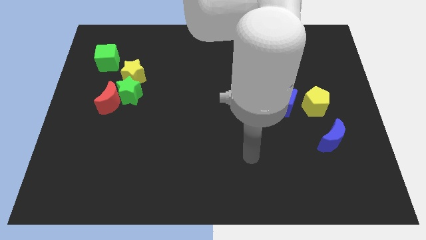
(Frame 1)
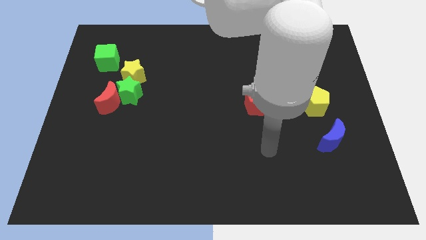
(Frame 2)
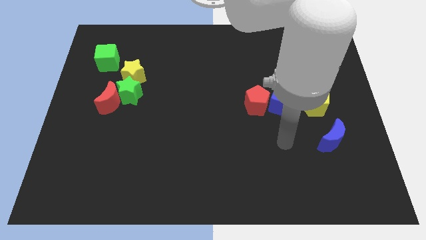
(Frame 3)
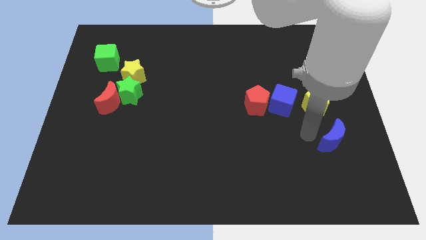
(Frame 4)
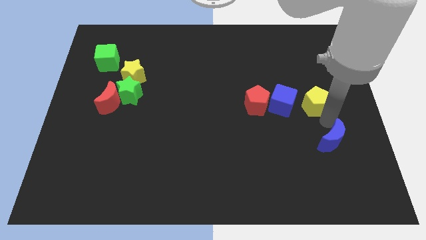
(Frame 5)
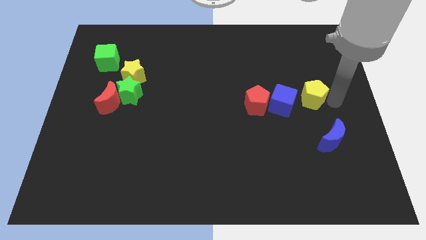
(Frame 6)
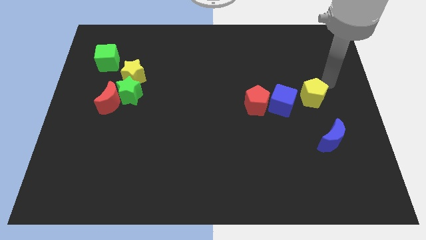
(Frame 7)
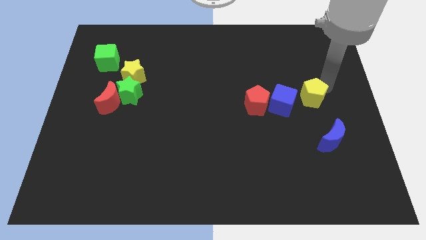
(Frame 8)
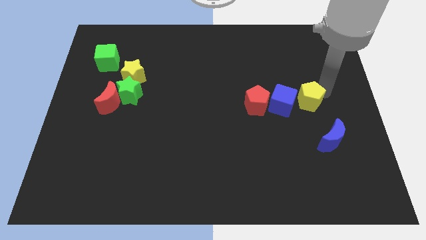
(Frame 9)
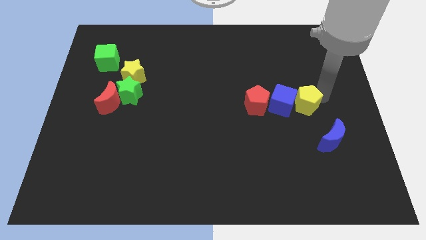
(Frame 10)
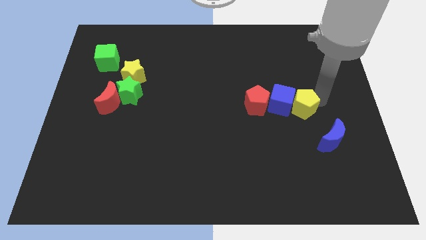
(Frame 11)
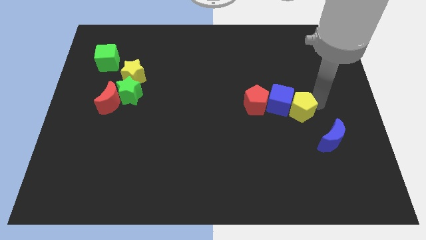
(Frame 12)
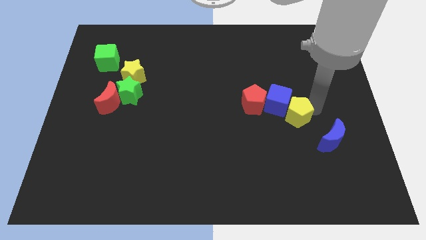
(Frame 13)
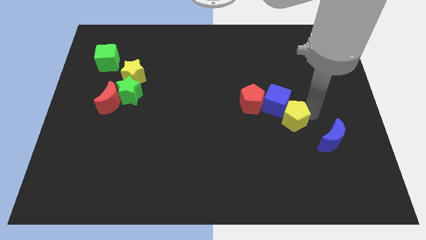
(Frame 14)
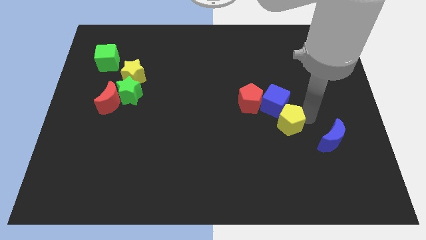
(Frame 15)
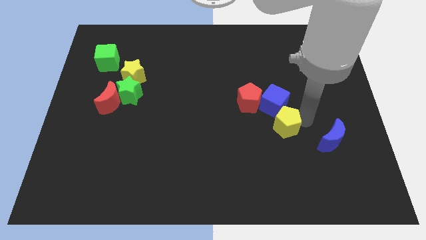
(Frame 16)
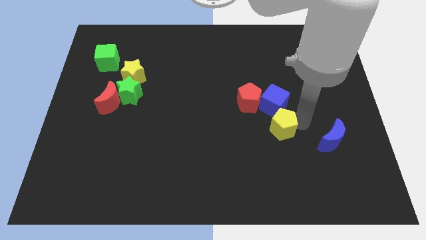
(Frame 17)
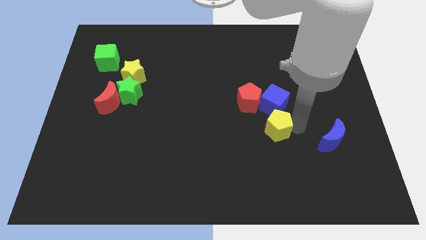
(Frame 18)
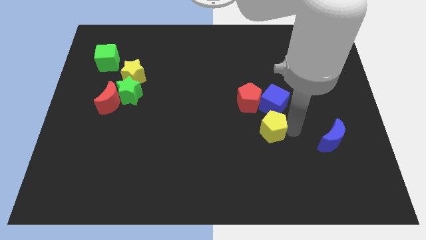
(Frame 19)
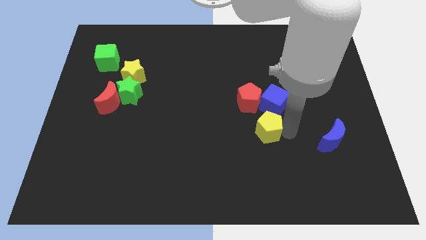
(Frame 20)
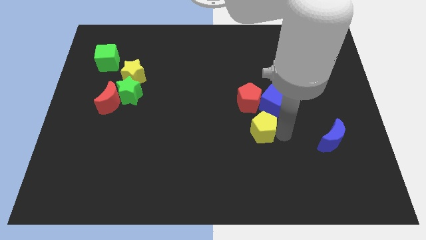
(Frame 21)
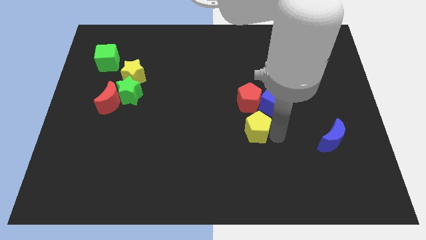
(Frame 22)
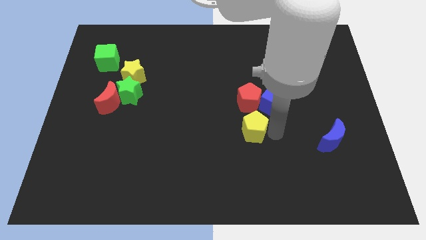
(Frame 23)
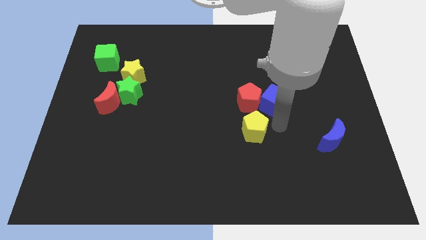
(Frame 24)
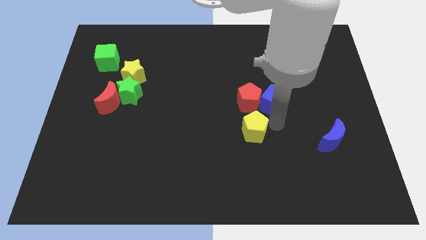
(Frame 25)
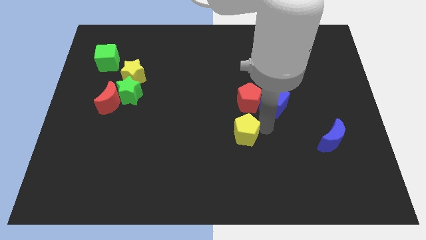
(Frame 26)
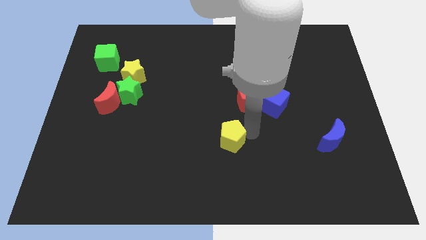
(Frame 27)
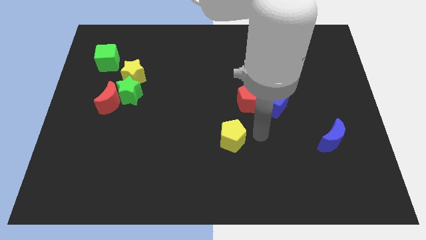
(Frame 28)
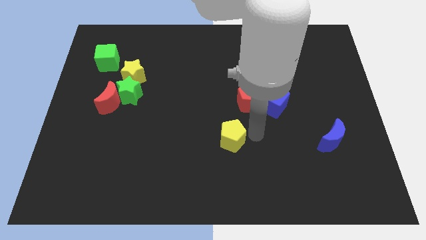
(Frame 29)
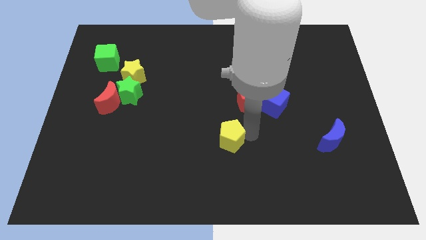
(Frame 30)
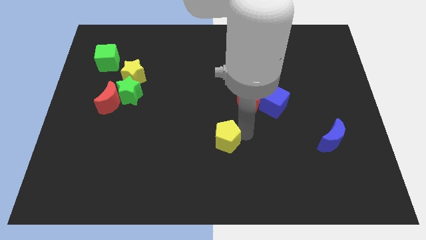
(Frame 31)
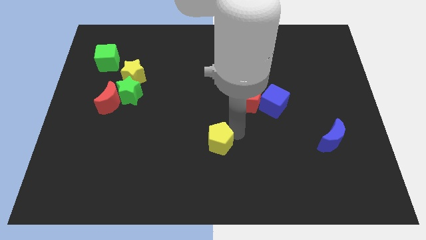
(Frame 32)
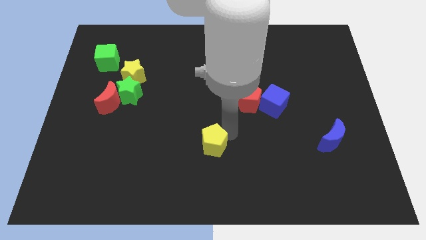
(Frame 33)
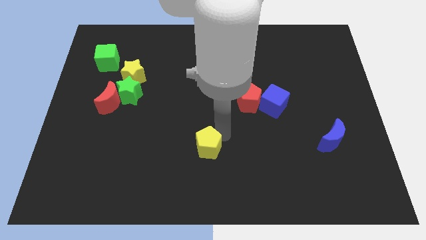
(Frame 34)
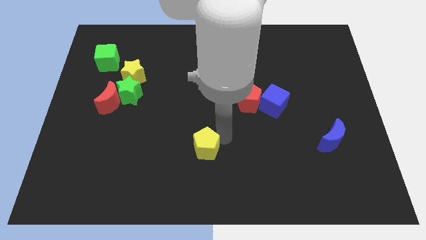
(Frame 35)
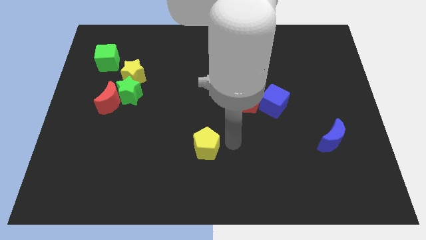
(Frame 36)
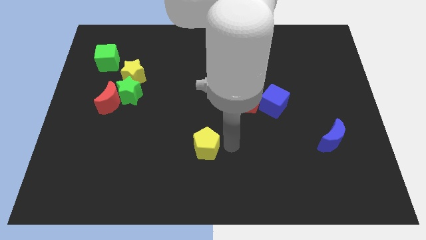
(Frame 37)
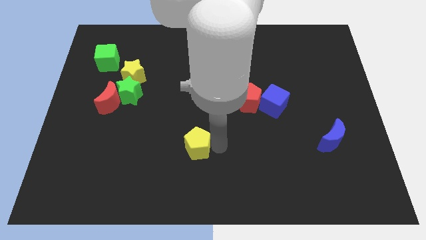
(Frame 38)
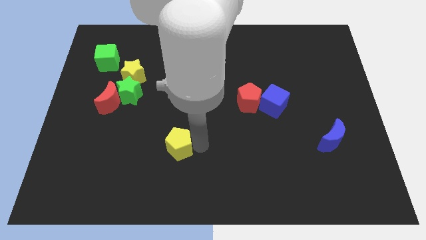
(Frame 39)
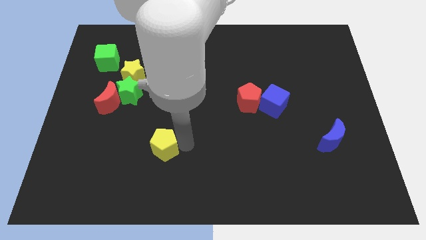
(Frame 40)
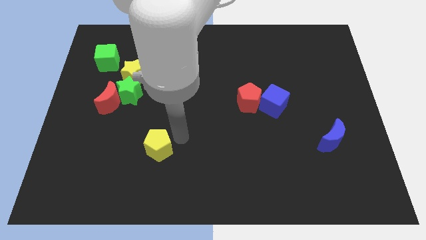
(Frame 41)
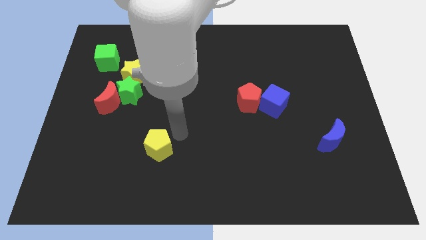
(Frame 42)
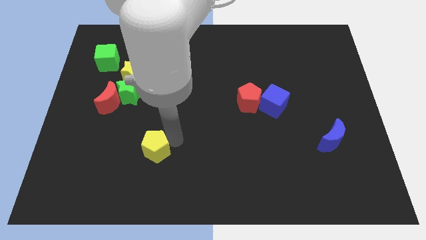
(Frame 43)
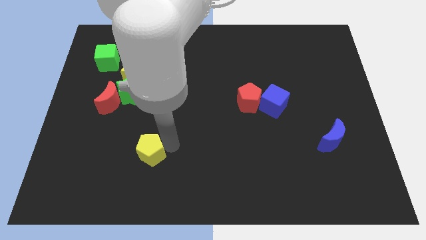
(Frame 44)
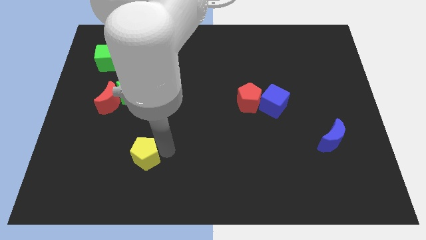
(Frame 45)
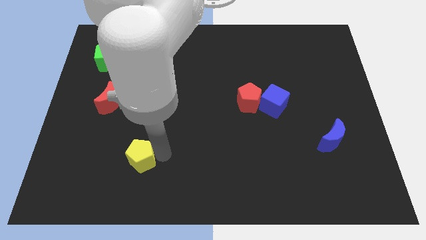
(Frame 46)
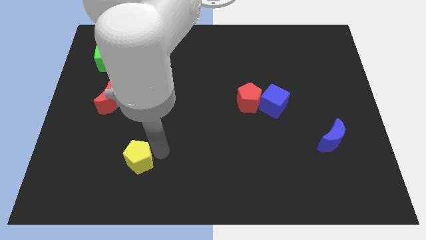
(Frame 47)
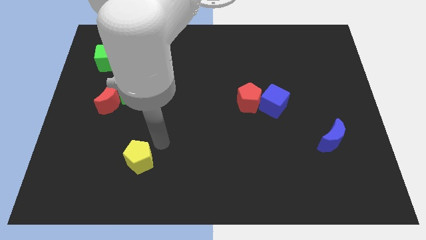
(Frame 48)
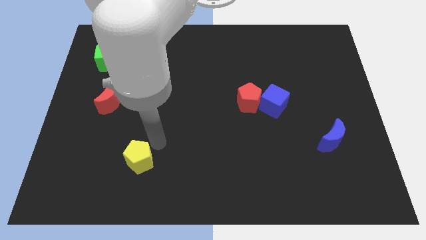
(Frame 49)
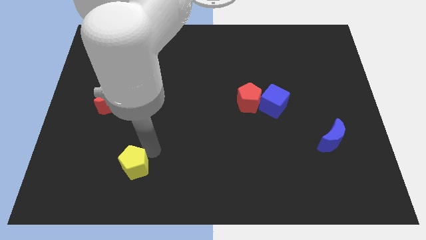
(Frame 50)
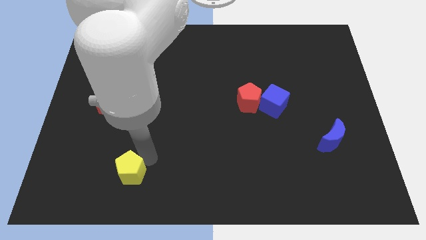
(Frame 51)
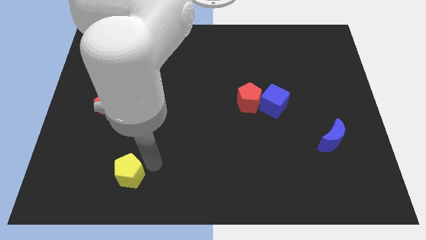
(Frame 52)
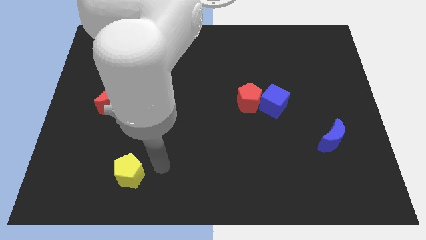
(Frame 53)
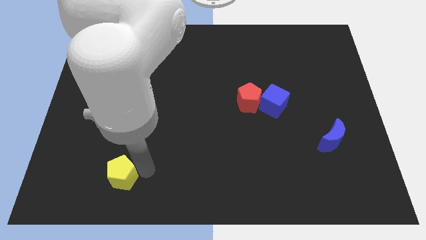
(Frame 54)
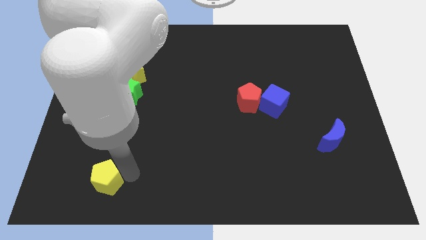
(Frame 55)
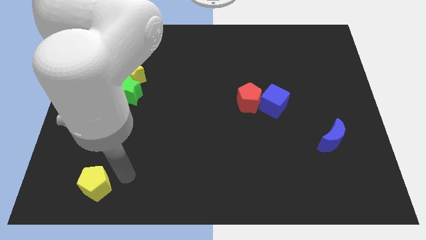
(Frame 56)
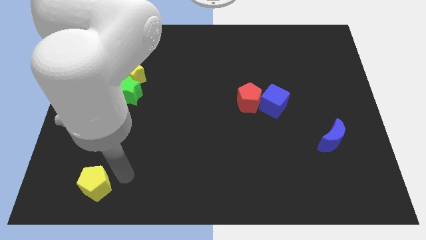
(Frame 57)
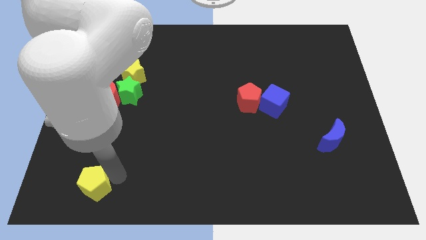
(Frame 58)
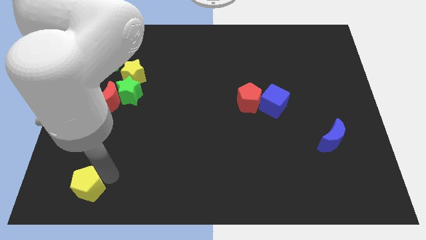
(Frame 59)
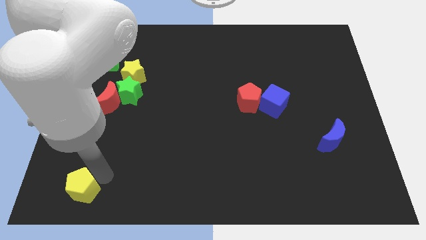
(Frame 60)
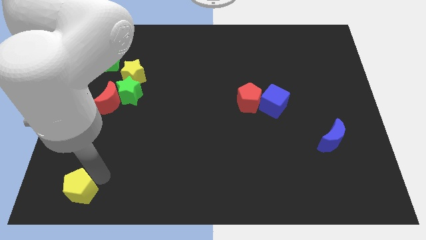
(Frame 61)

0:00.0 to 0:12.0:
push the yellow pentagon to the bottom left of the board
